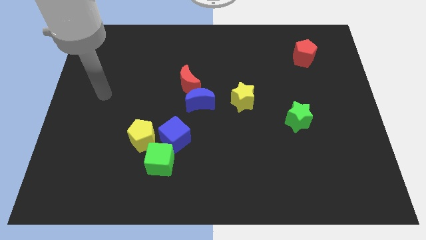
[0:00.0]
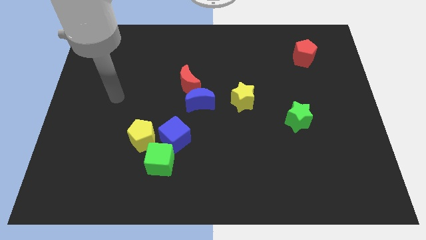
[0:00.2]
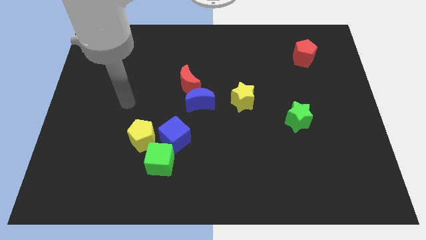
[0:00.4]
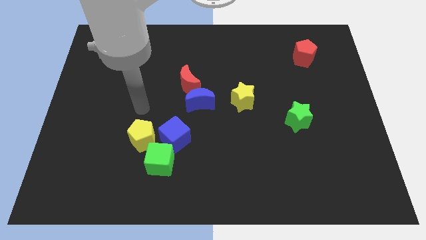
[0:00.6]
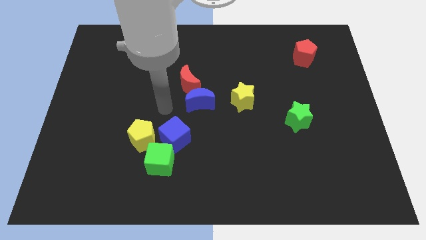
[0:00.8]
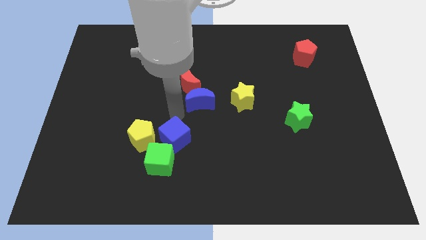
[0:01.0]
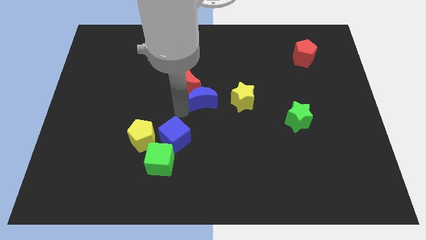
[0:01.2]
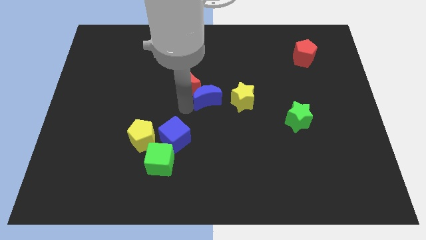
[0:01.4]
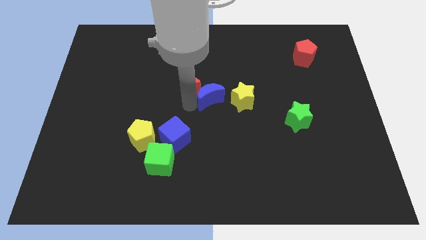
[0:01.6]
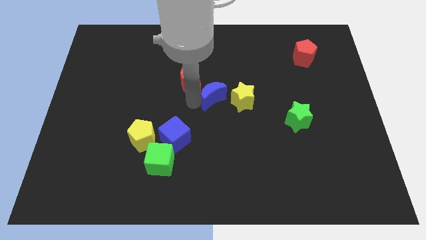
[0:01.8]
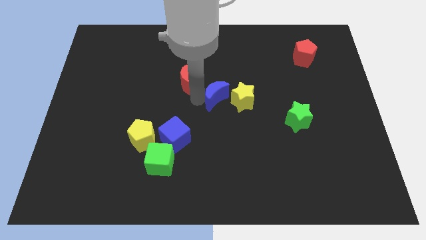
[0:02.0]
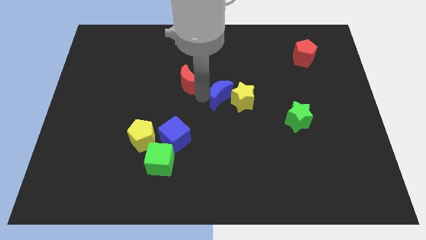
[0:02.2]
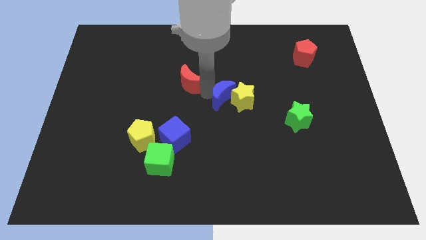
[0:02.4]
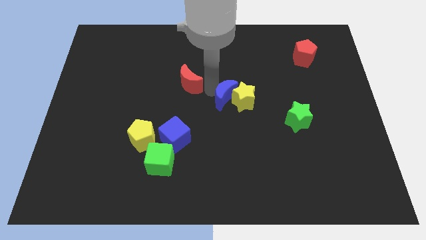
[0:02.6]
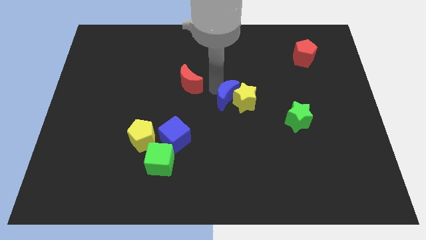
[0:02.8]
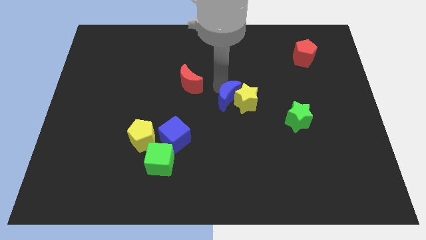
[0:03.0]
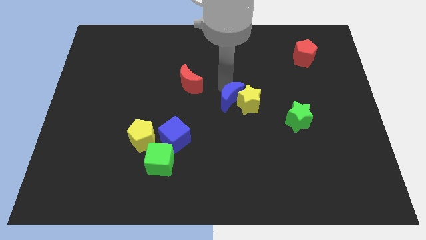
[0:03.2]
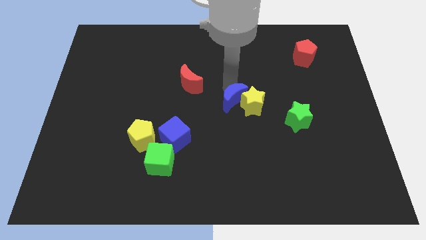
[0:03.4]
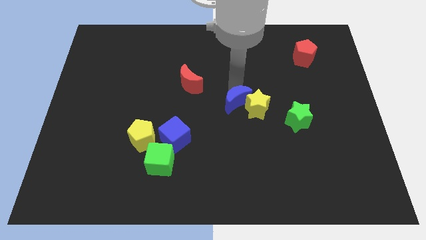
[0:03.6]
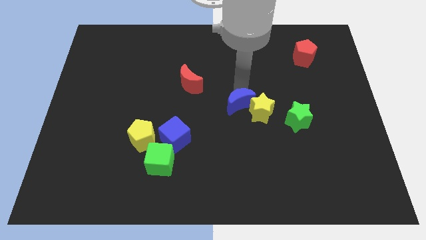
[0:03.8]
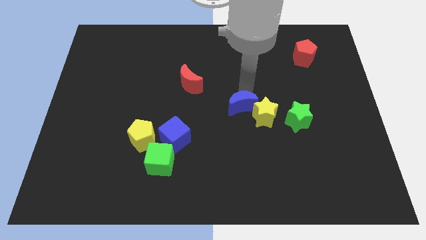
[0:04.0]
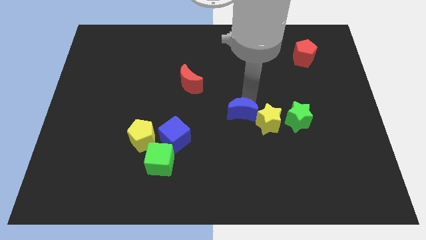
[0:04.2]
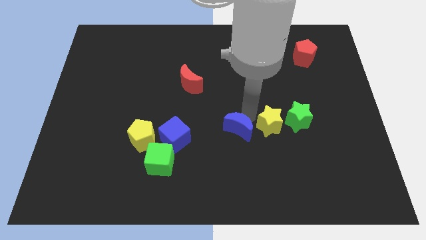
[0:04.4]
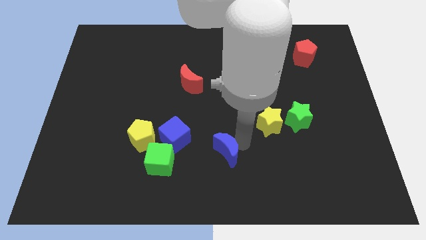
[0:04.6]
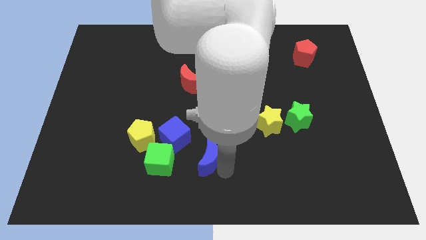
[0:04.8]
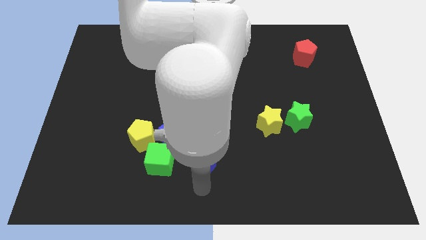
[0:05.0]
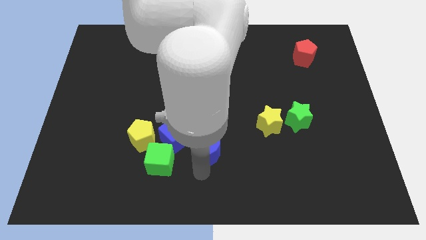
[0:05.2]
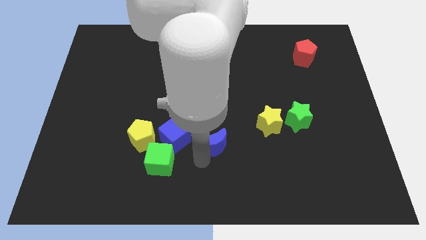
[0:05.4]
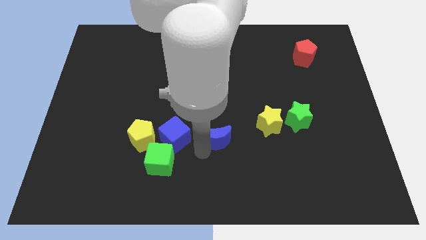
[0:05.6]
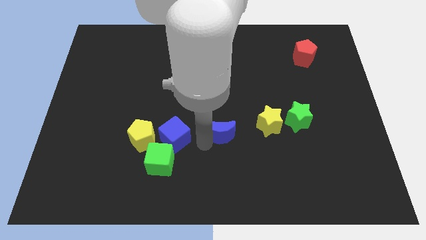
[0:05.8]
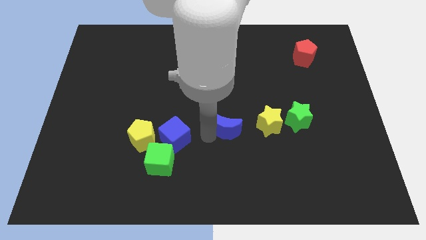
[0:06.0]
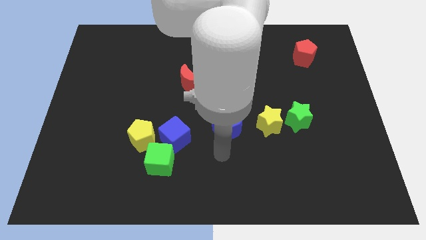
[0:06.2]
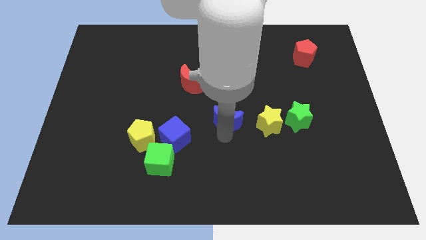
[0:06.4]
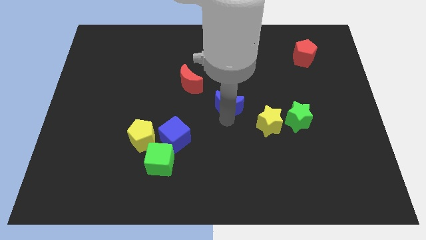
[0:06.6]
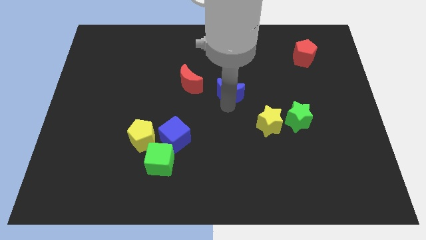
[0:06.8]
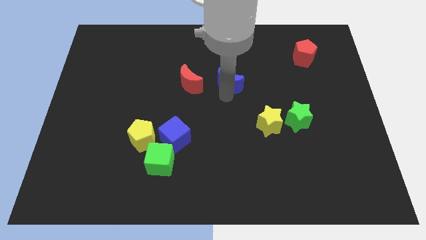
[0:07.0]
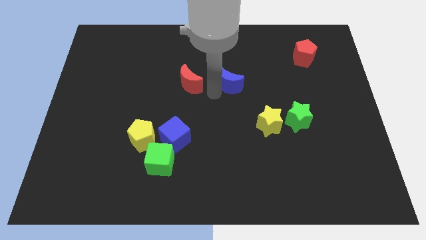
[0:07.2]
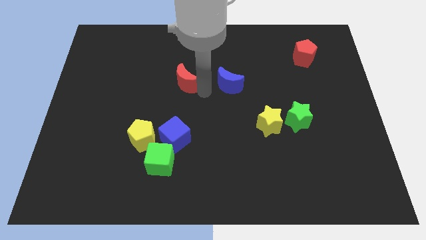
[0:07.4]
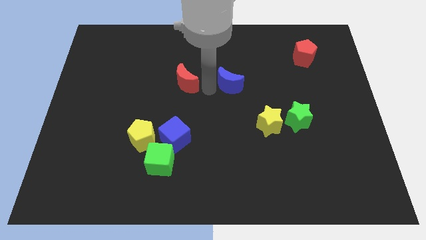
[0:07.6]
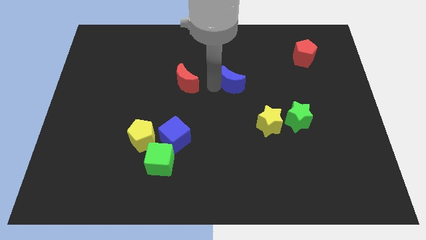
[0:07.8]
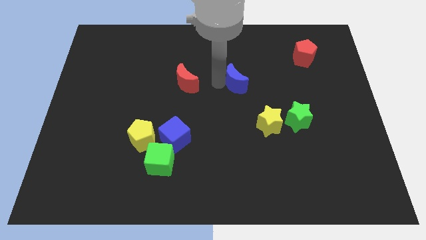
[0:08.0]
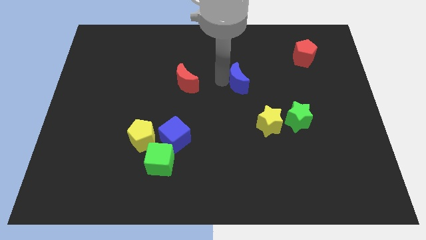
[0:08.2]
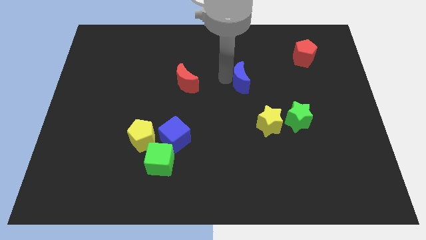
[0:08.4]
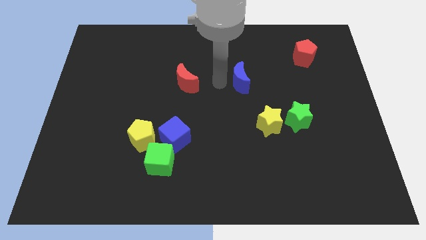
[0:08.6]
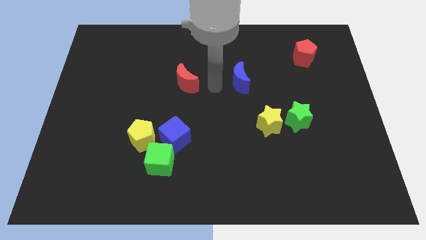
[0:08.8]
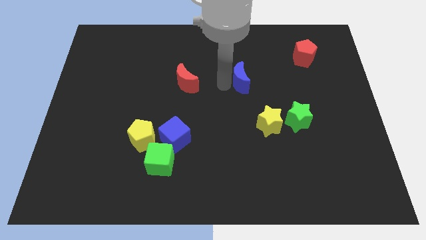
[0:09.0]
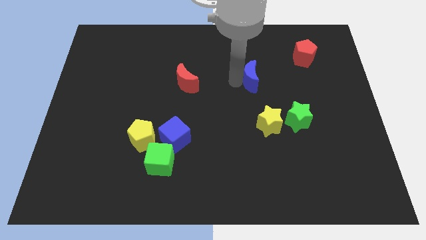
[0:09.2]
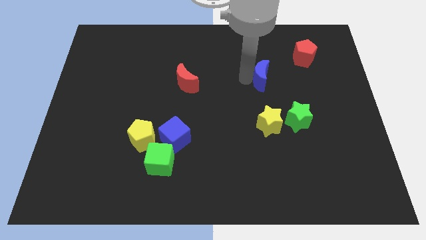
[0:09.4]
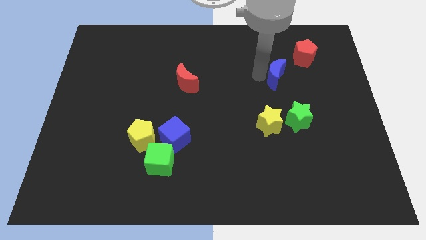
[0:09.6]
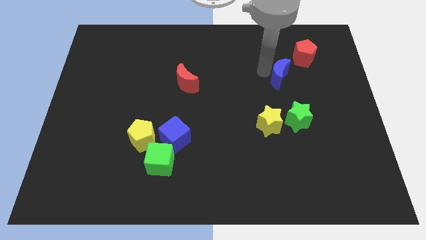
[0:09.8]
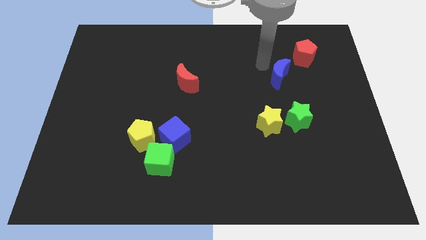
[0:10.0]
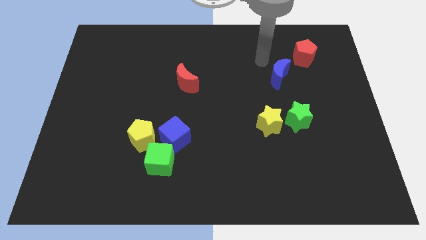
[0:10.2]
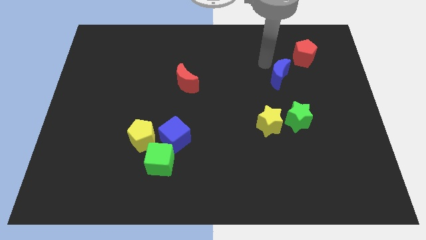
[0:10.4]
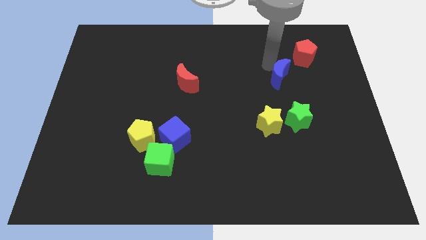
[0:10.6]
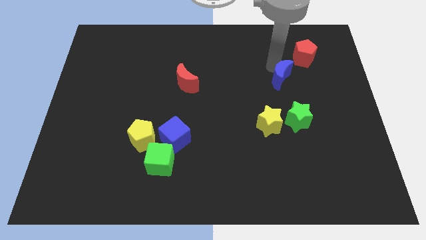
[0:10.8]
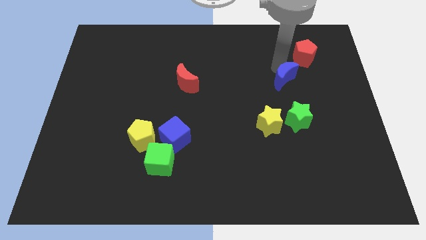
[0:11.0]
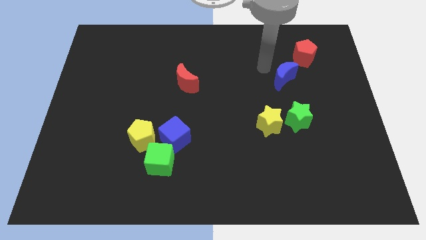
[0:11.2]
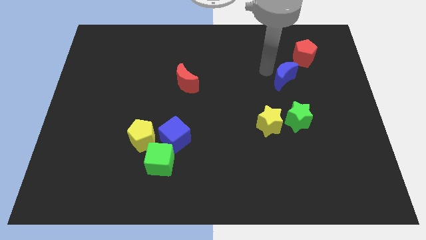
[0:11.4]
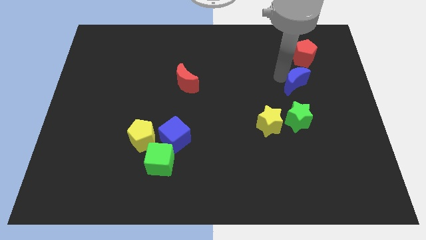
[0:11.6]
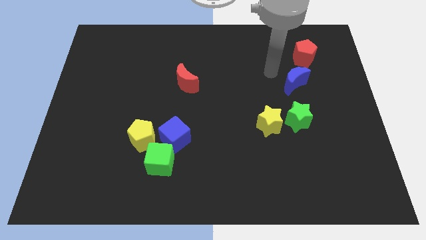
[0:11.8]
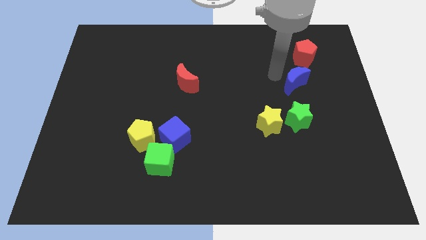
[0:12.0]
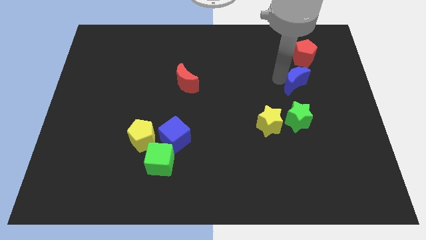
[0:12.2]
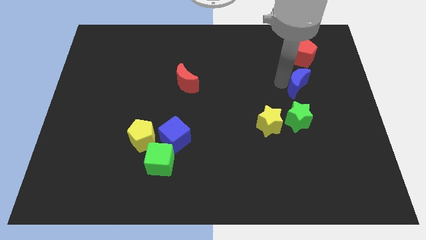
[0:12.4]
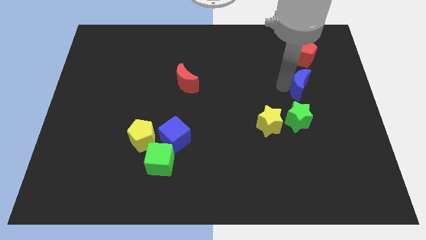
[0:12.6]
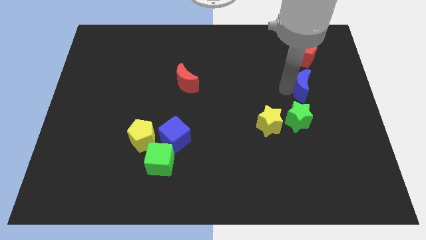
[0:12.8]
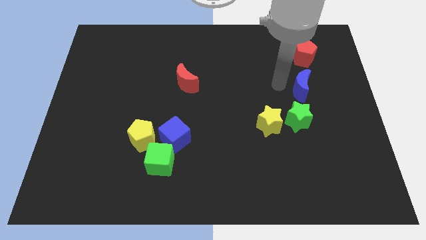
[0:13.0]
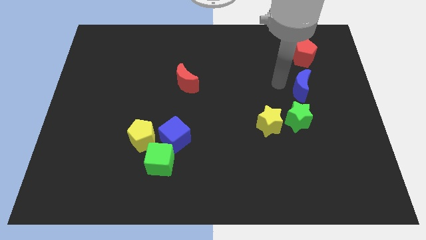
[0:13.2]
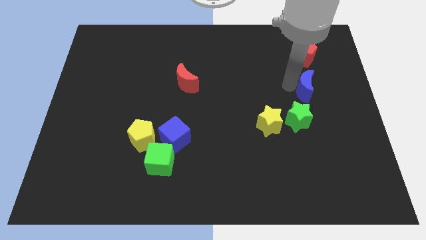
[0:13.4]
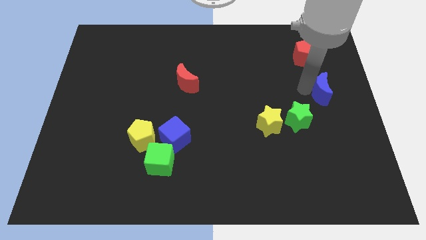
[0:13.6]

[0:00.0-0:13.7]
put the blue moon to the right side of the board

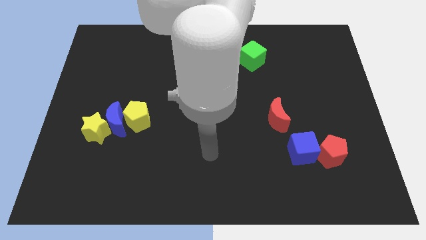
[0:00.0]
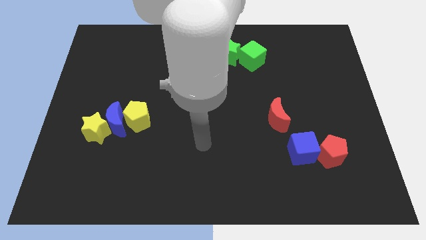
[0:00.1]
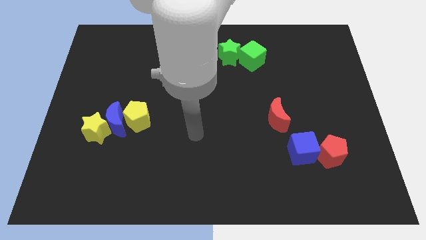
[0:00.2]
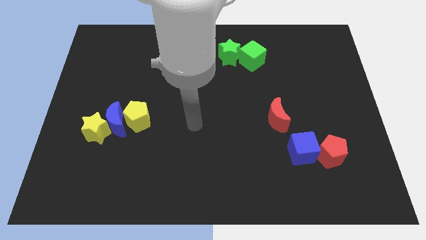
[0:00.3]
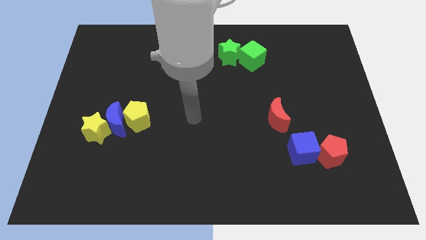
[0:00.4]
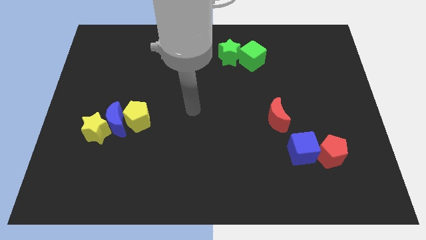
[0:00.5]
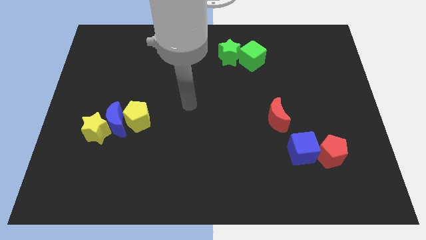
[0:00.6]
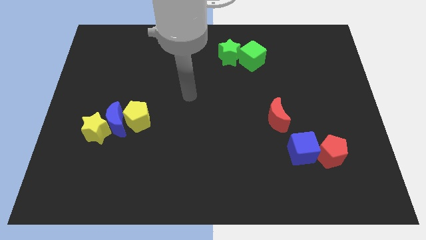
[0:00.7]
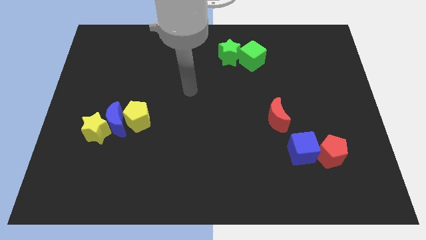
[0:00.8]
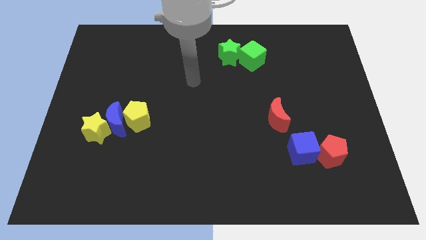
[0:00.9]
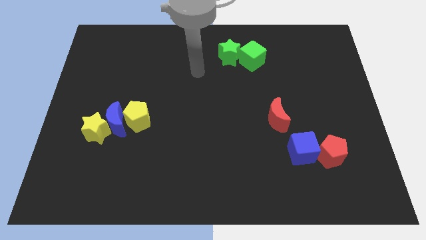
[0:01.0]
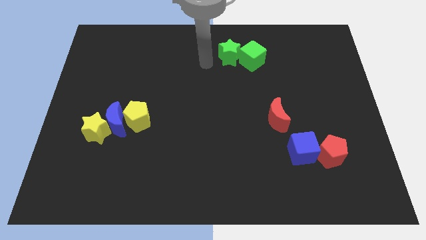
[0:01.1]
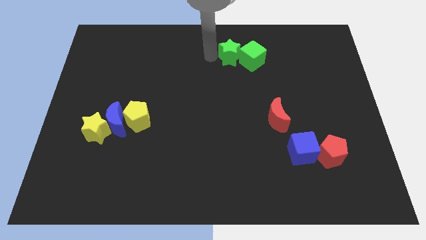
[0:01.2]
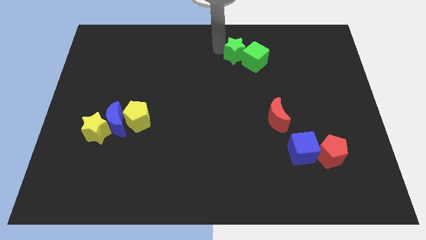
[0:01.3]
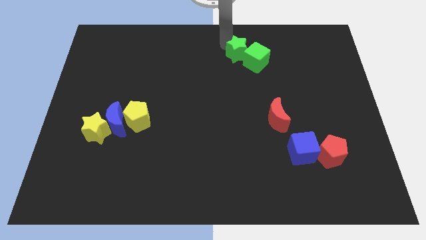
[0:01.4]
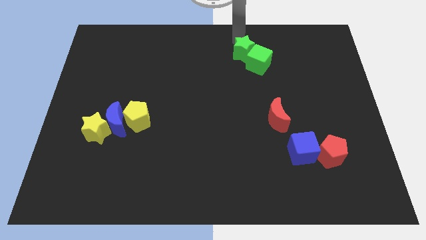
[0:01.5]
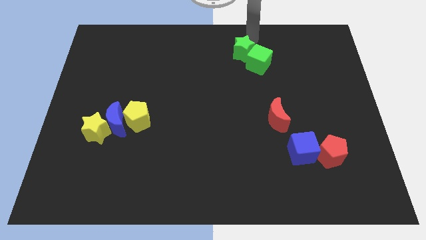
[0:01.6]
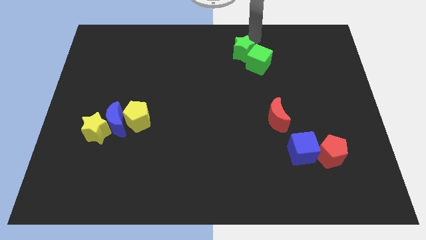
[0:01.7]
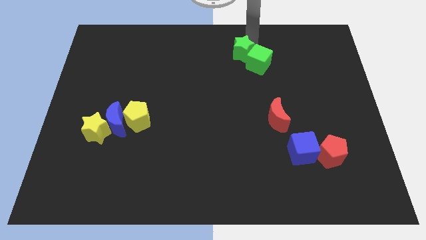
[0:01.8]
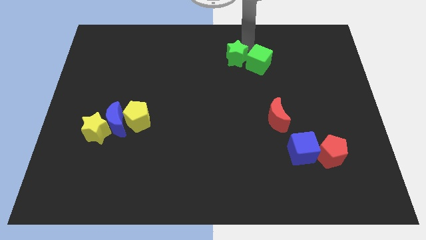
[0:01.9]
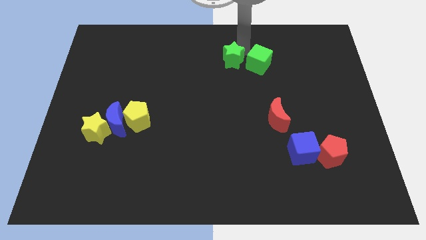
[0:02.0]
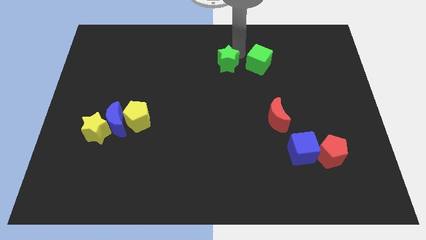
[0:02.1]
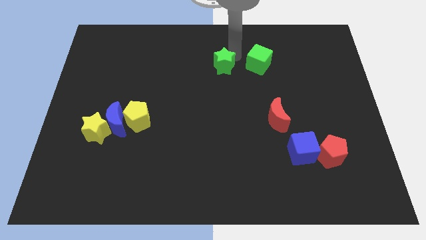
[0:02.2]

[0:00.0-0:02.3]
push the green star to the center
